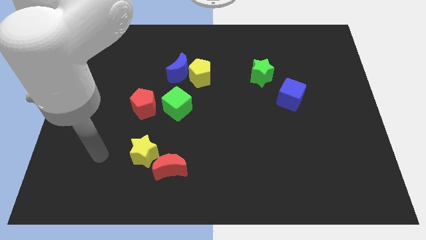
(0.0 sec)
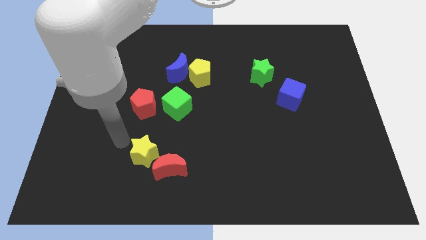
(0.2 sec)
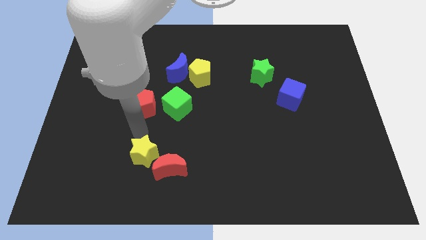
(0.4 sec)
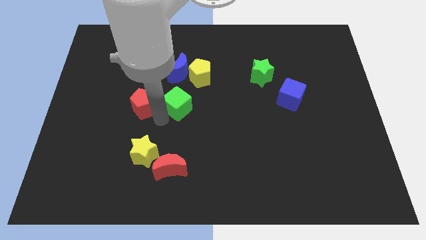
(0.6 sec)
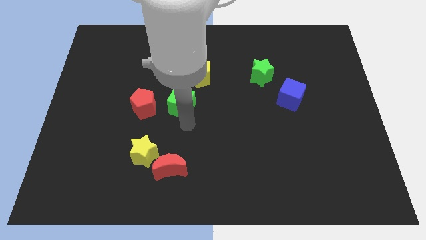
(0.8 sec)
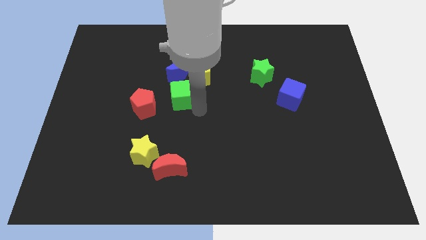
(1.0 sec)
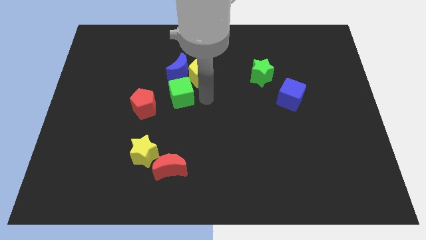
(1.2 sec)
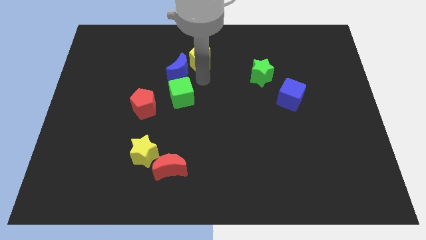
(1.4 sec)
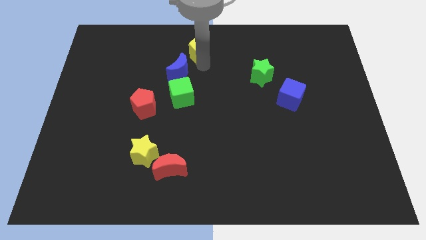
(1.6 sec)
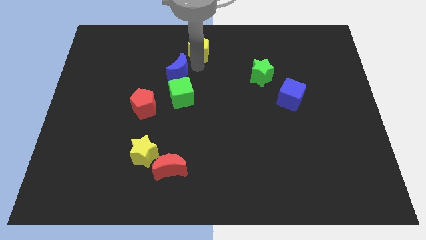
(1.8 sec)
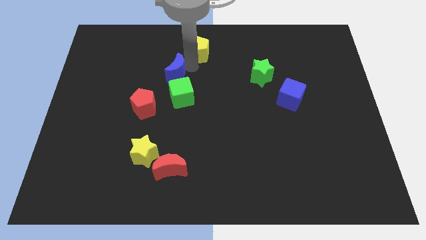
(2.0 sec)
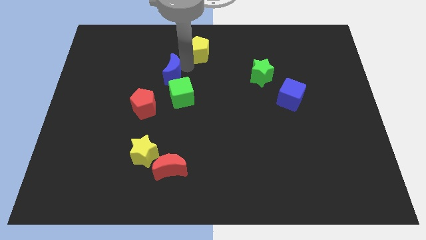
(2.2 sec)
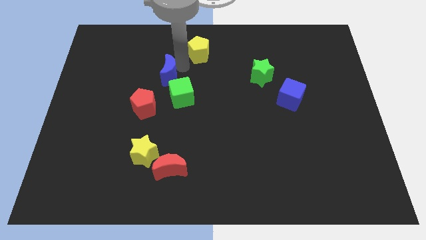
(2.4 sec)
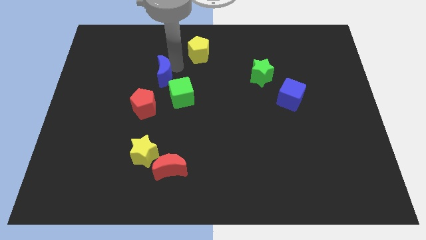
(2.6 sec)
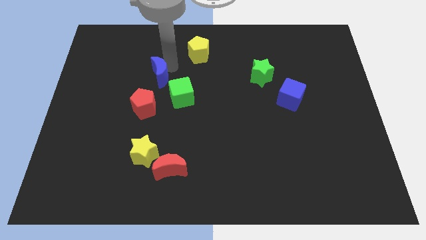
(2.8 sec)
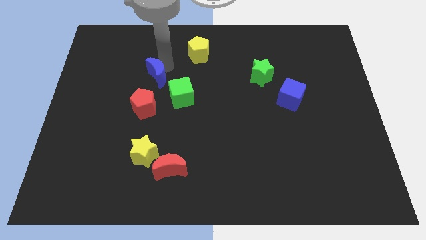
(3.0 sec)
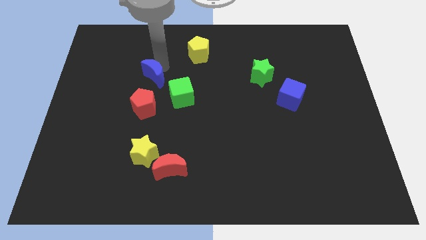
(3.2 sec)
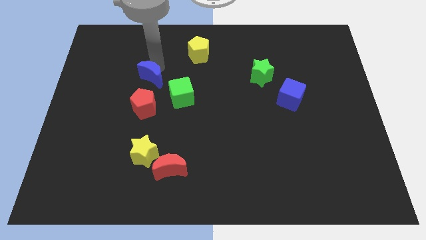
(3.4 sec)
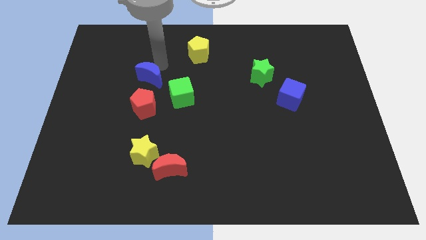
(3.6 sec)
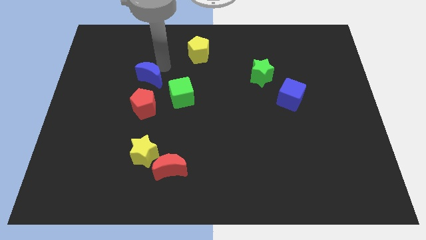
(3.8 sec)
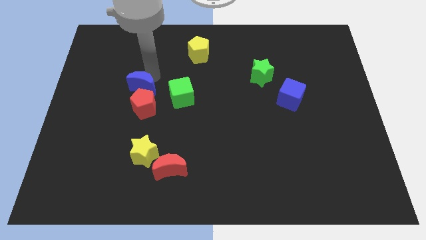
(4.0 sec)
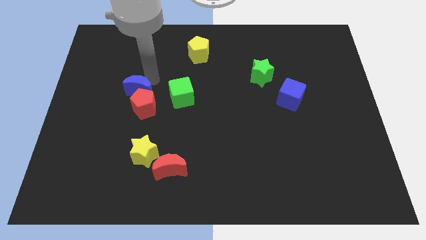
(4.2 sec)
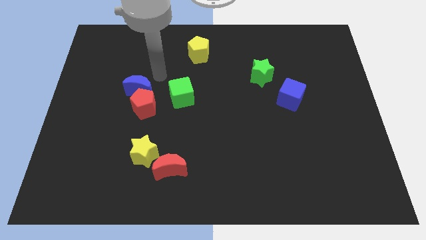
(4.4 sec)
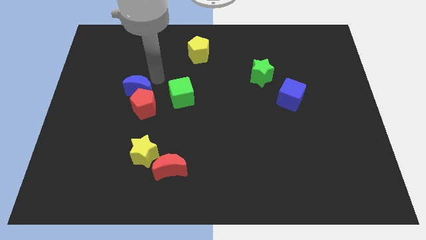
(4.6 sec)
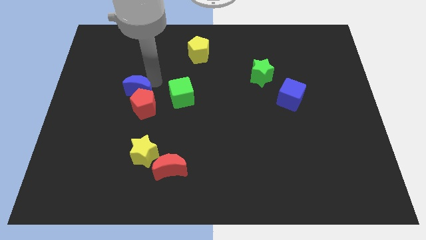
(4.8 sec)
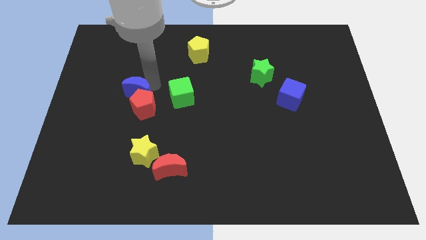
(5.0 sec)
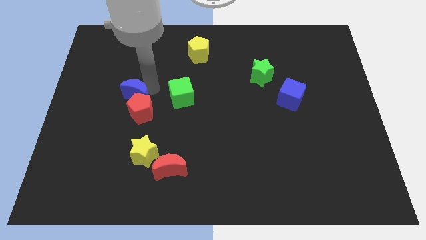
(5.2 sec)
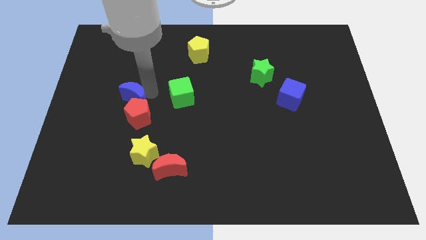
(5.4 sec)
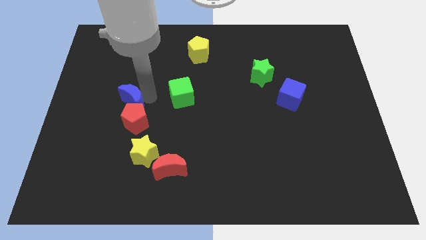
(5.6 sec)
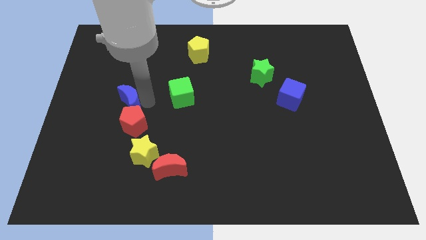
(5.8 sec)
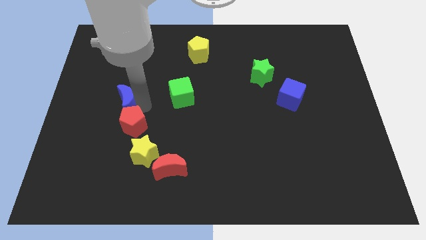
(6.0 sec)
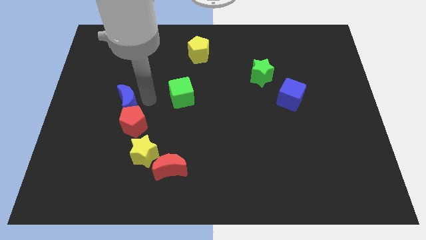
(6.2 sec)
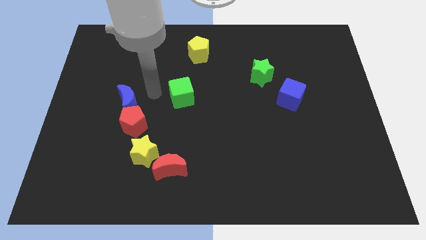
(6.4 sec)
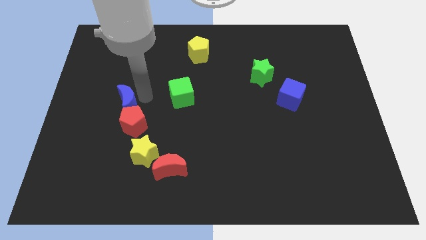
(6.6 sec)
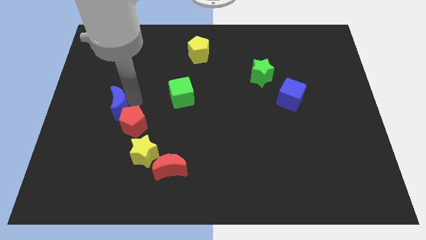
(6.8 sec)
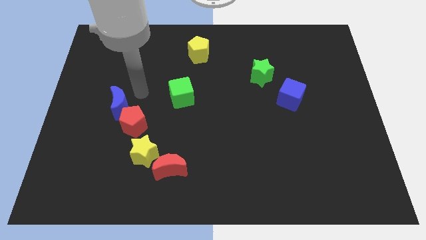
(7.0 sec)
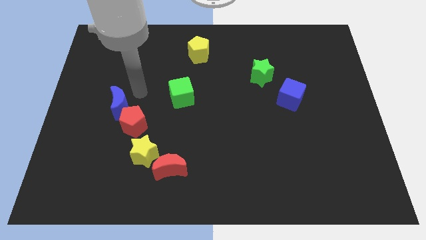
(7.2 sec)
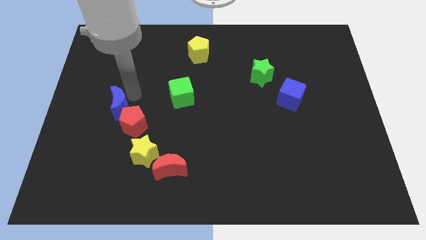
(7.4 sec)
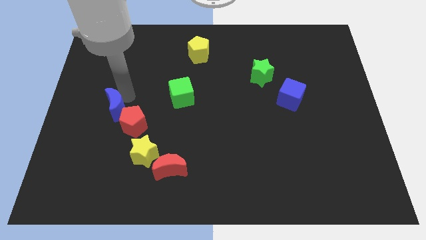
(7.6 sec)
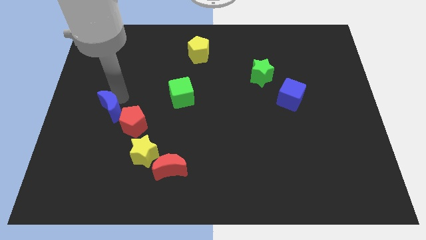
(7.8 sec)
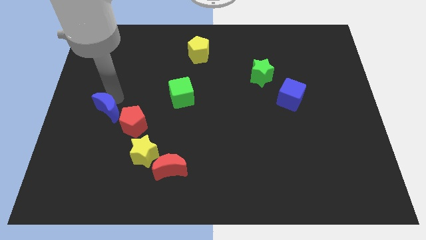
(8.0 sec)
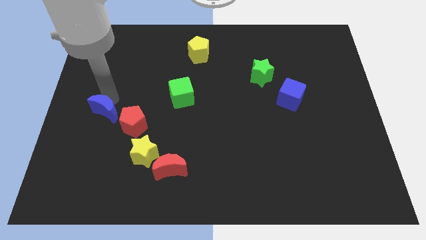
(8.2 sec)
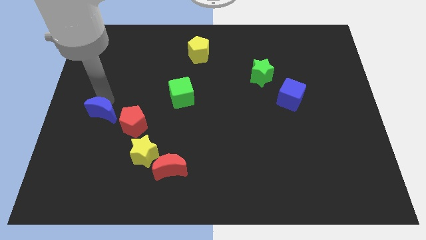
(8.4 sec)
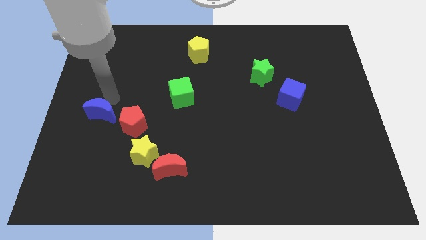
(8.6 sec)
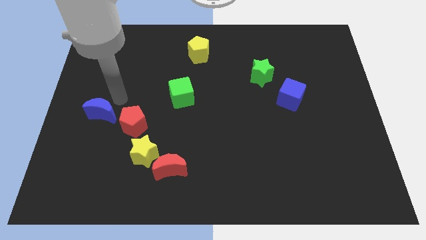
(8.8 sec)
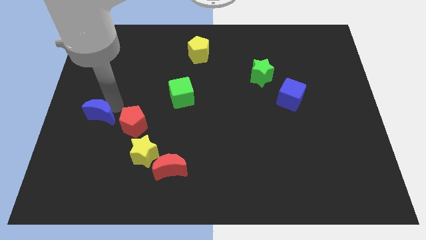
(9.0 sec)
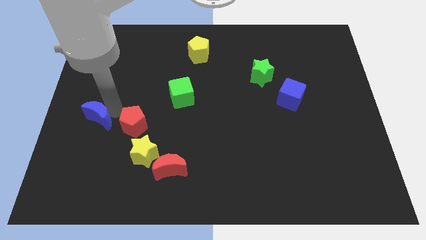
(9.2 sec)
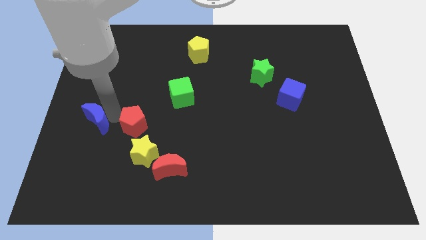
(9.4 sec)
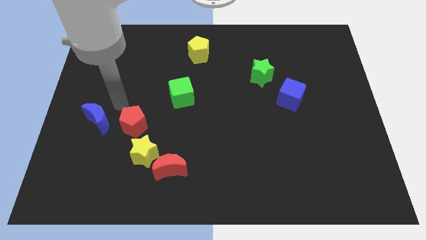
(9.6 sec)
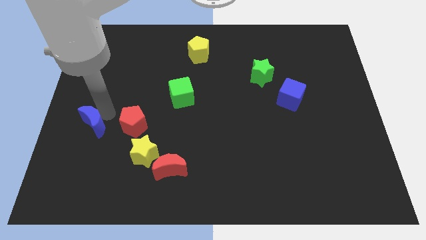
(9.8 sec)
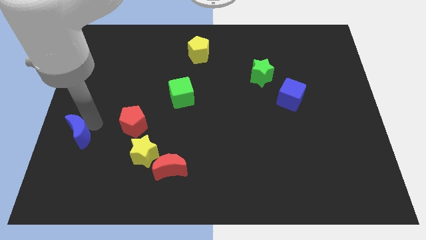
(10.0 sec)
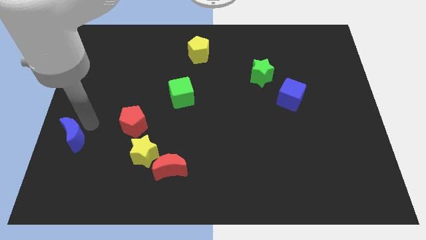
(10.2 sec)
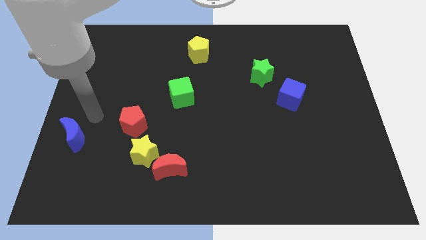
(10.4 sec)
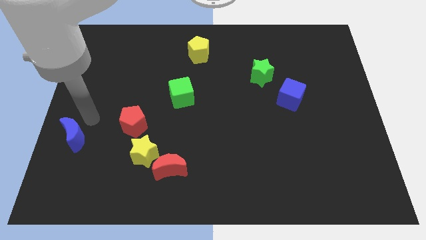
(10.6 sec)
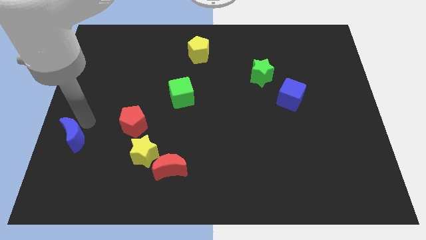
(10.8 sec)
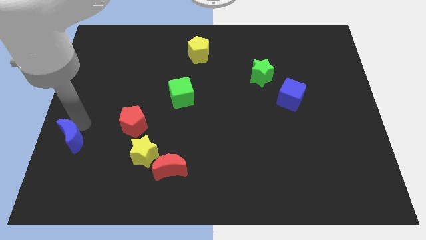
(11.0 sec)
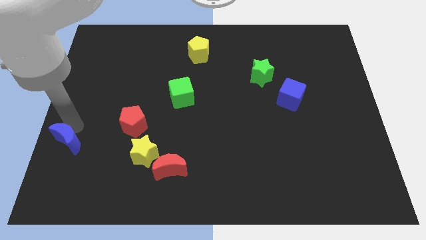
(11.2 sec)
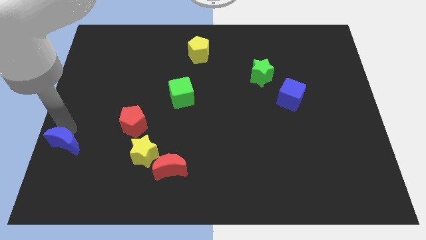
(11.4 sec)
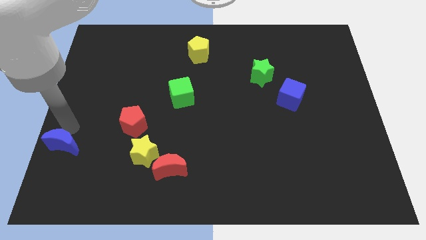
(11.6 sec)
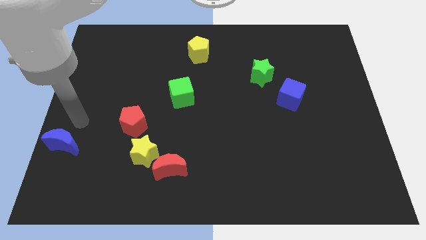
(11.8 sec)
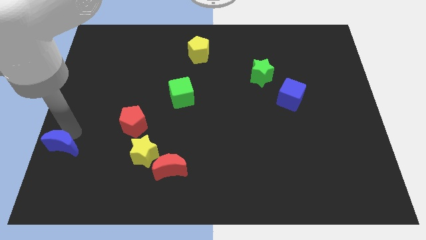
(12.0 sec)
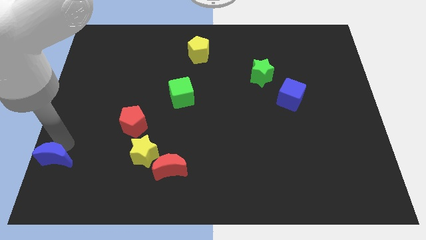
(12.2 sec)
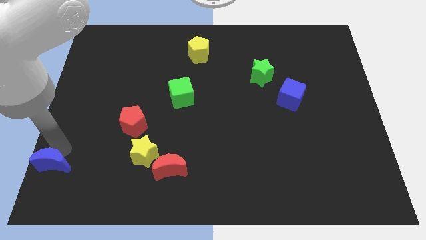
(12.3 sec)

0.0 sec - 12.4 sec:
move the blue moon to the bottom left corner
